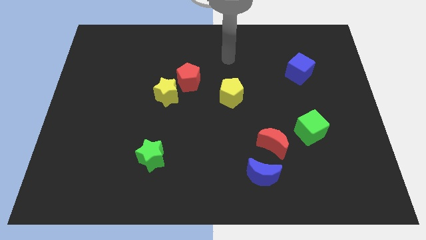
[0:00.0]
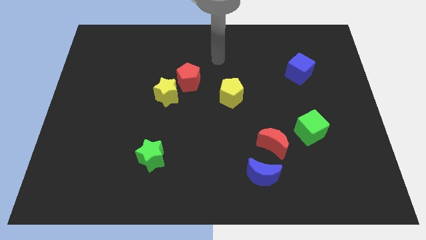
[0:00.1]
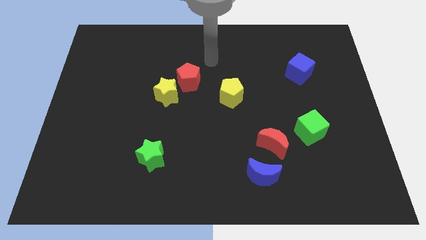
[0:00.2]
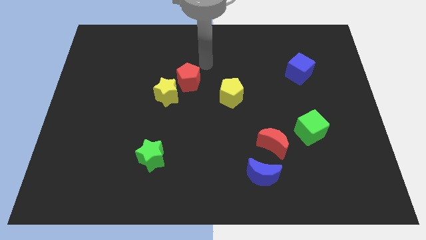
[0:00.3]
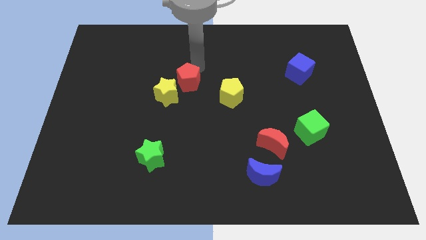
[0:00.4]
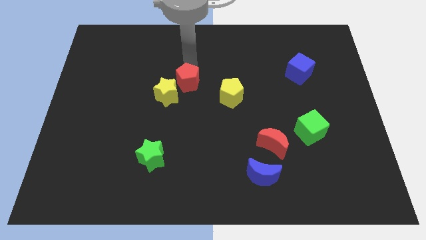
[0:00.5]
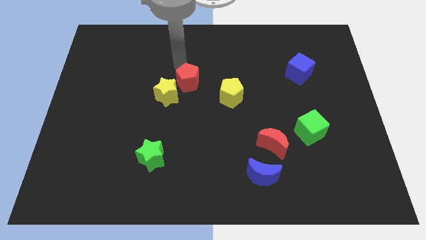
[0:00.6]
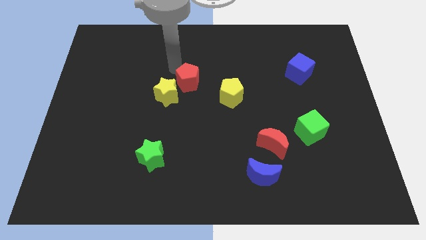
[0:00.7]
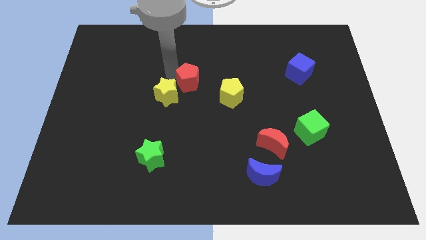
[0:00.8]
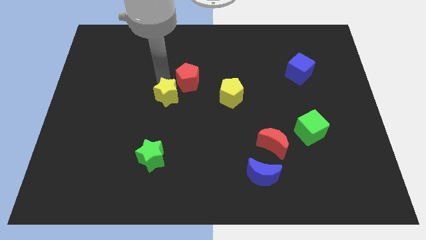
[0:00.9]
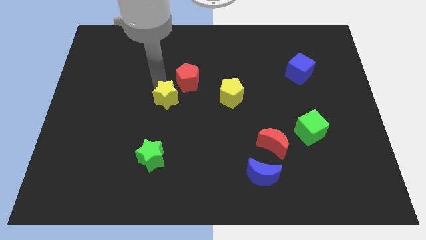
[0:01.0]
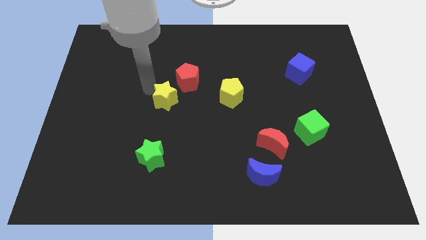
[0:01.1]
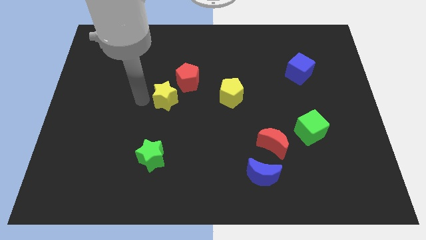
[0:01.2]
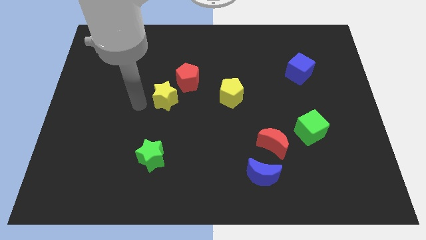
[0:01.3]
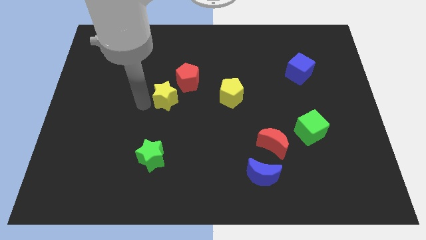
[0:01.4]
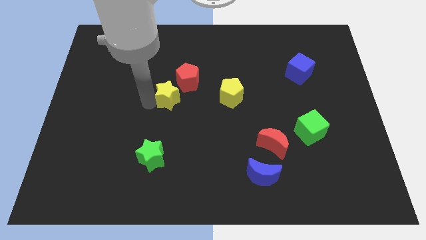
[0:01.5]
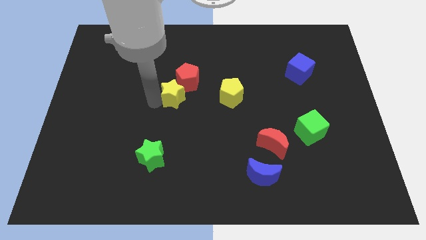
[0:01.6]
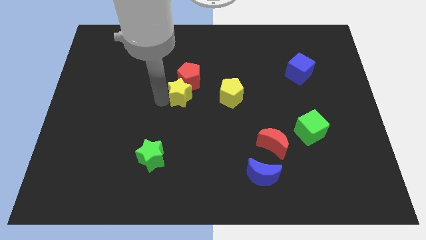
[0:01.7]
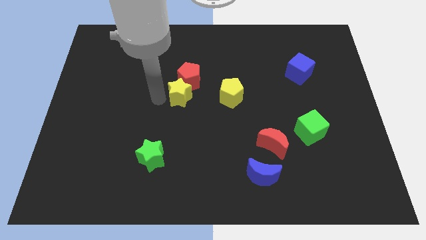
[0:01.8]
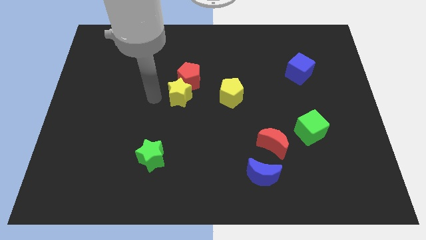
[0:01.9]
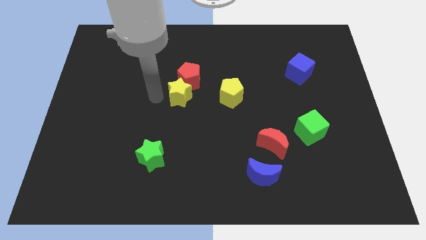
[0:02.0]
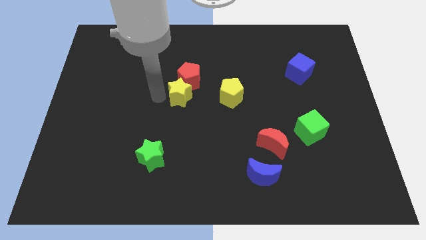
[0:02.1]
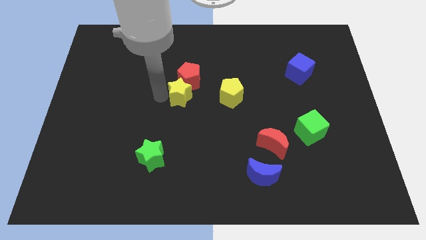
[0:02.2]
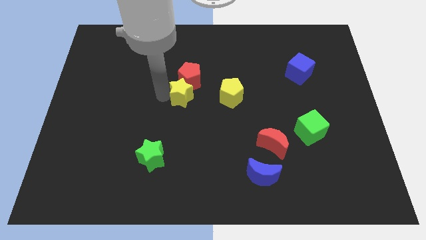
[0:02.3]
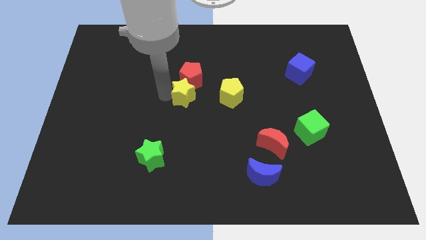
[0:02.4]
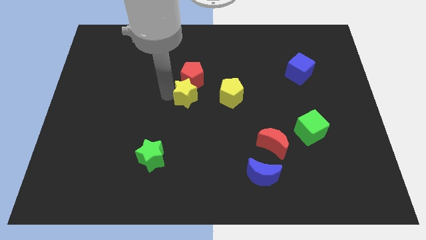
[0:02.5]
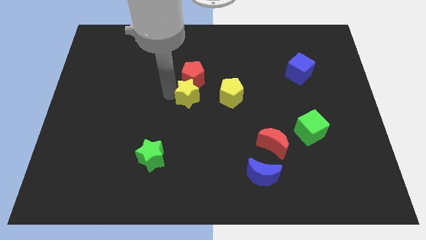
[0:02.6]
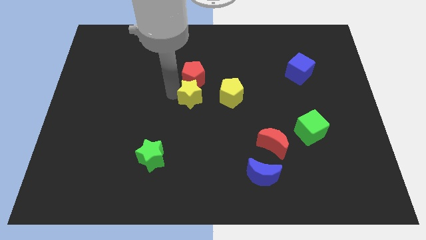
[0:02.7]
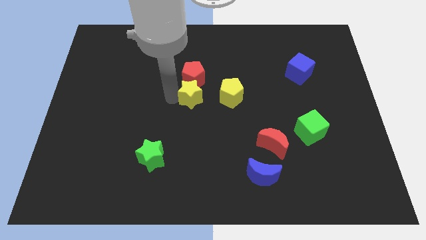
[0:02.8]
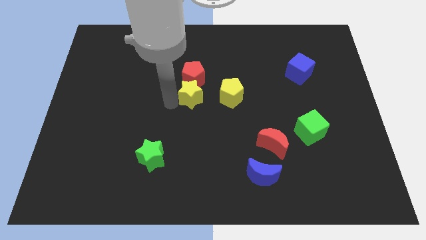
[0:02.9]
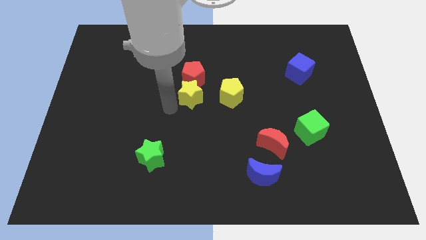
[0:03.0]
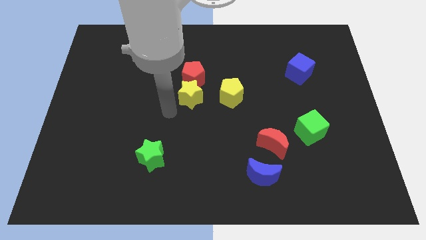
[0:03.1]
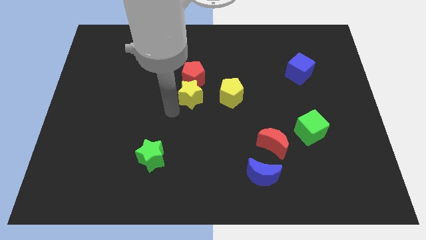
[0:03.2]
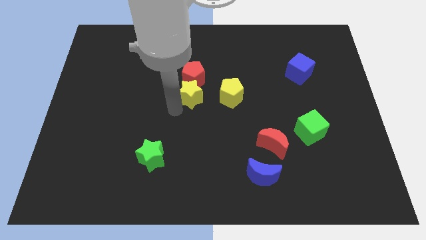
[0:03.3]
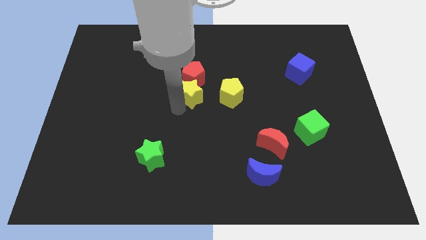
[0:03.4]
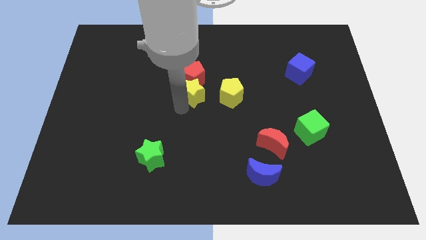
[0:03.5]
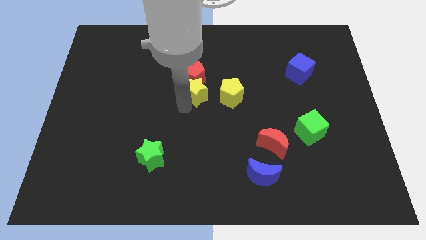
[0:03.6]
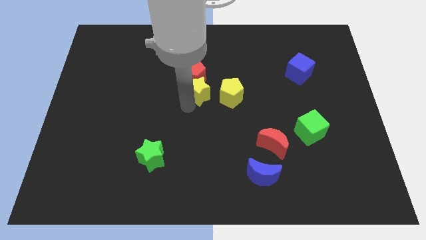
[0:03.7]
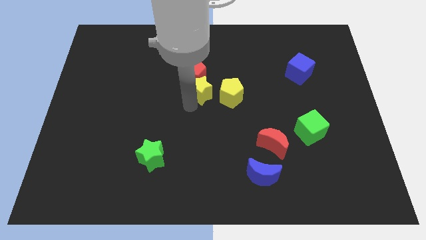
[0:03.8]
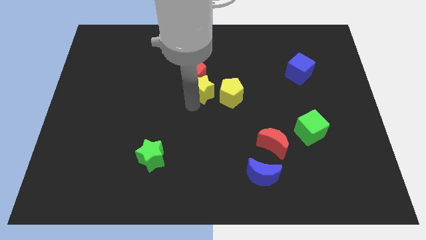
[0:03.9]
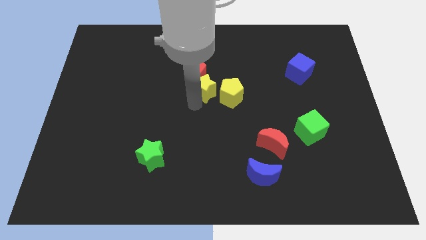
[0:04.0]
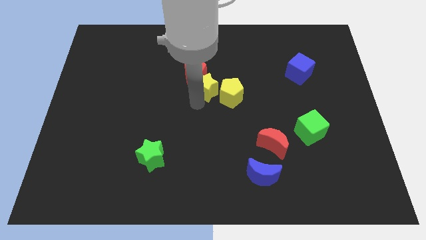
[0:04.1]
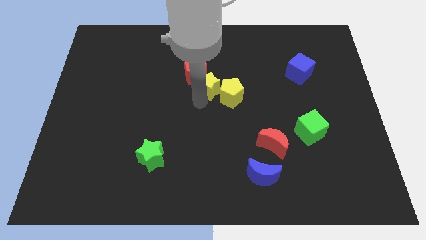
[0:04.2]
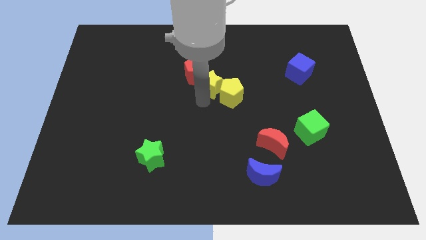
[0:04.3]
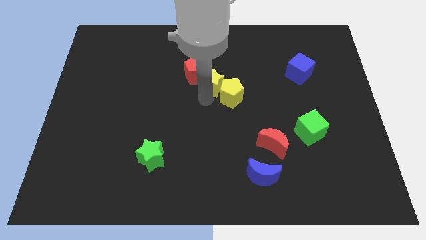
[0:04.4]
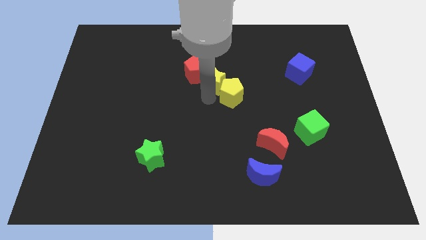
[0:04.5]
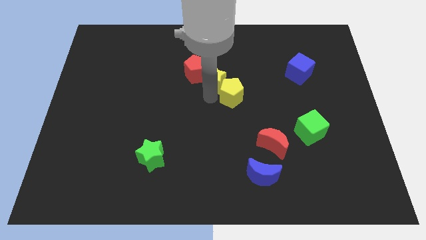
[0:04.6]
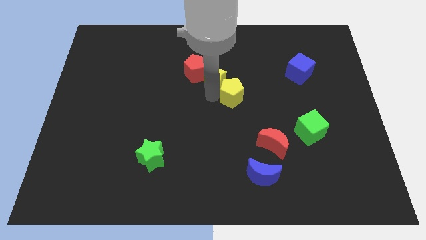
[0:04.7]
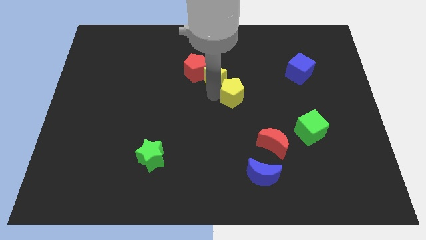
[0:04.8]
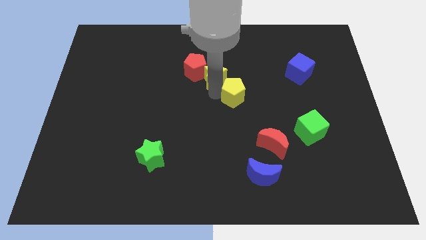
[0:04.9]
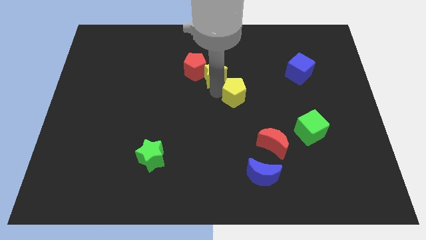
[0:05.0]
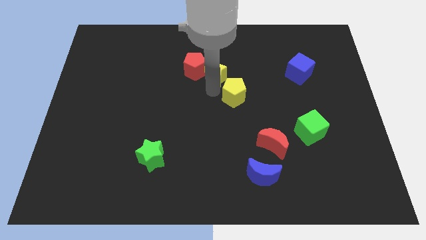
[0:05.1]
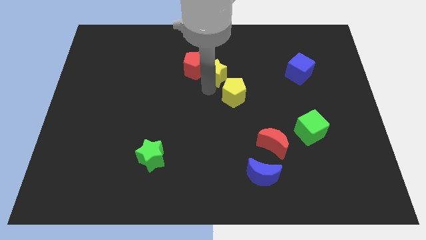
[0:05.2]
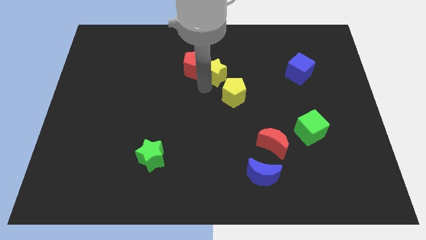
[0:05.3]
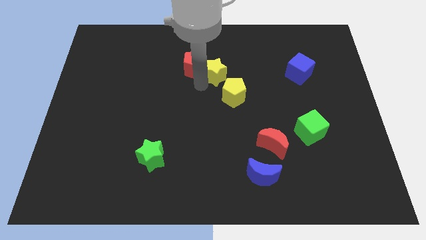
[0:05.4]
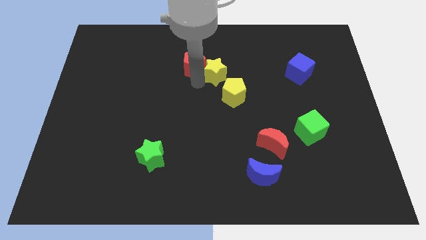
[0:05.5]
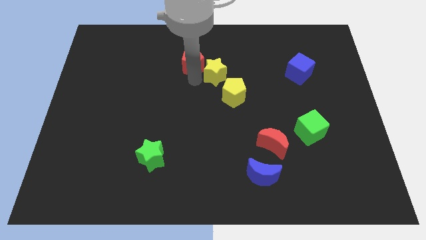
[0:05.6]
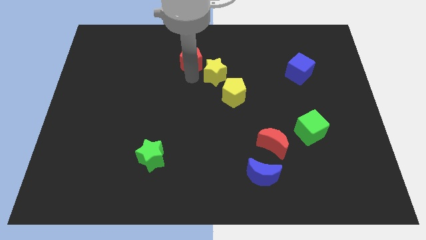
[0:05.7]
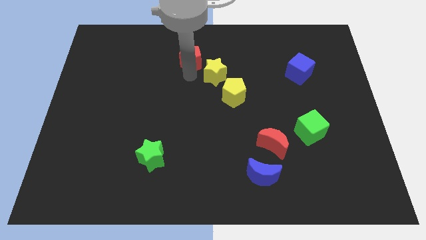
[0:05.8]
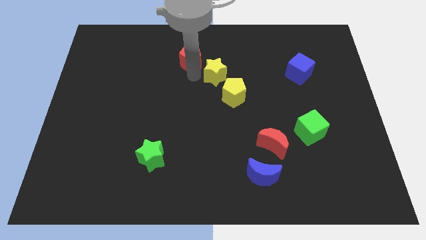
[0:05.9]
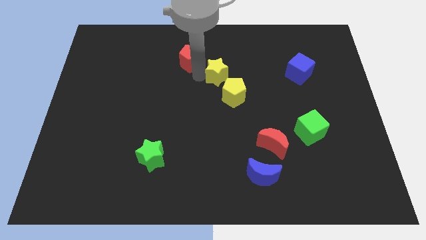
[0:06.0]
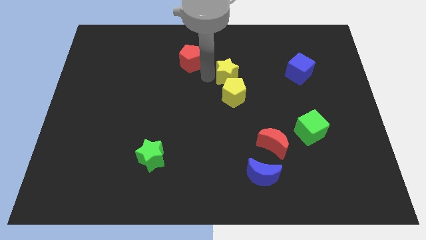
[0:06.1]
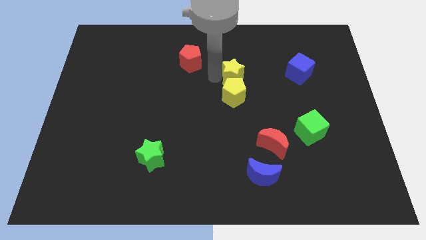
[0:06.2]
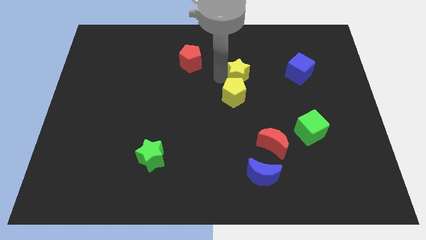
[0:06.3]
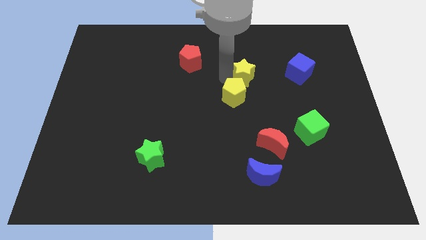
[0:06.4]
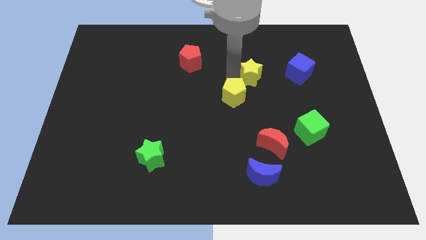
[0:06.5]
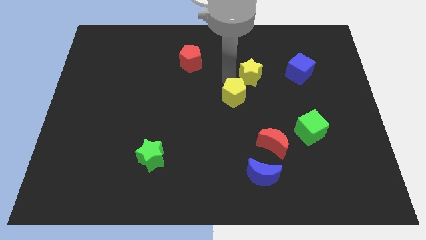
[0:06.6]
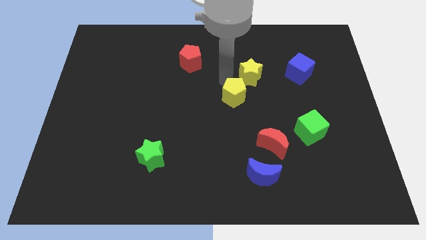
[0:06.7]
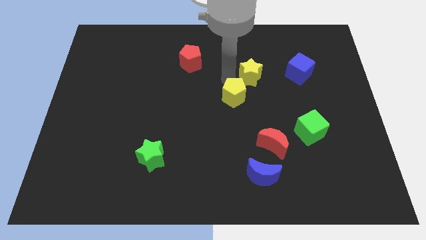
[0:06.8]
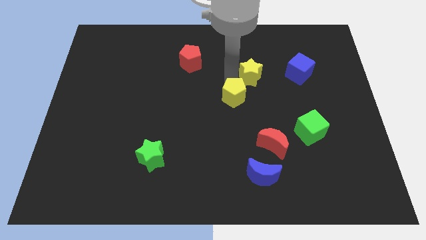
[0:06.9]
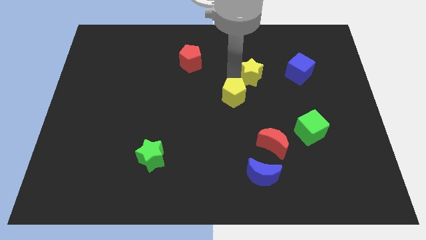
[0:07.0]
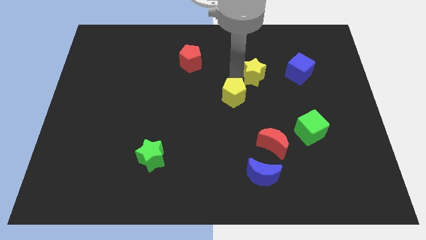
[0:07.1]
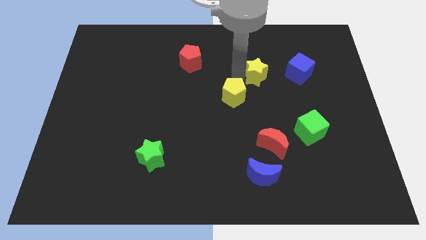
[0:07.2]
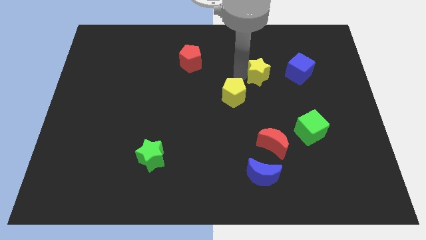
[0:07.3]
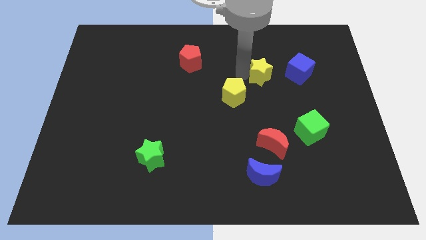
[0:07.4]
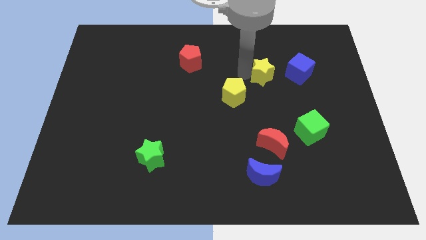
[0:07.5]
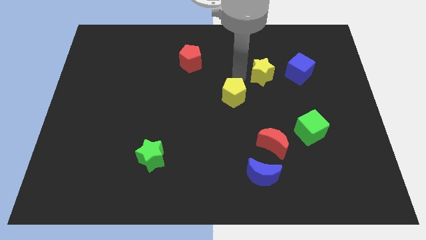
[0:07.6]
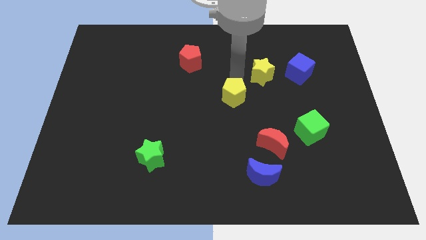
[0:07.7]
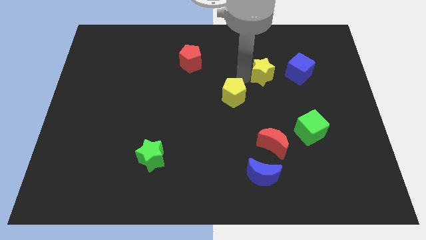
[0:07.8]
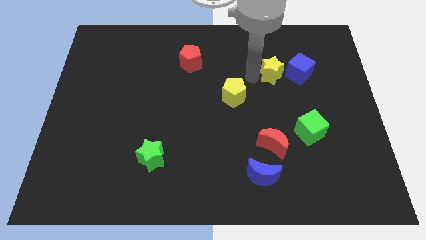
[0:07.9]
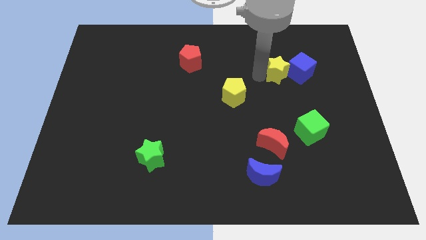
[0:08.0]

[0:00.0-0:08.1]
slide the yellow star towards the blue cube
